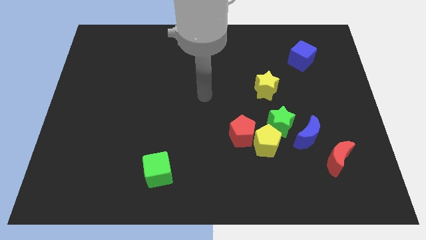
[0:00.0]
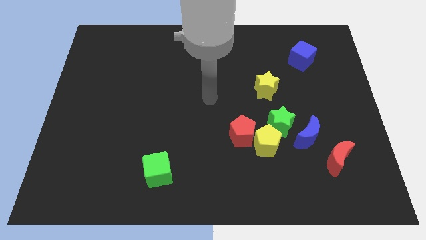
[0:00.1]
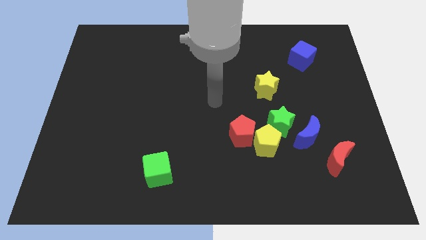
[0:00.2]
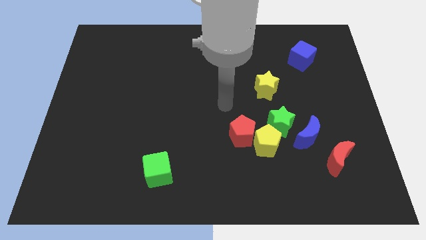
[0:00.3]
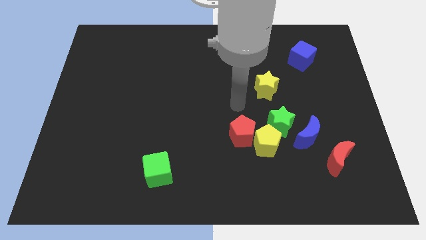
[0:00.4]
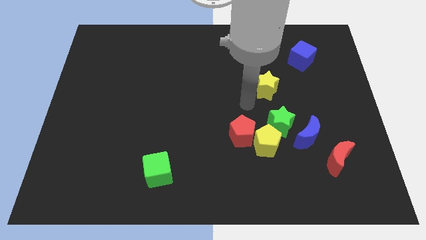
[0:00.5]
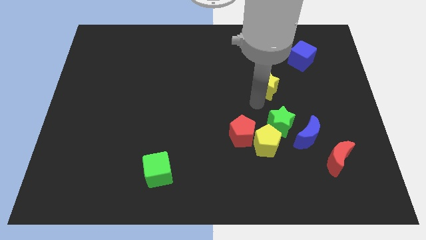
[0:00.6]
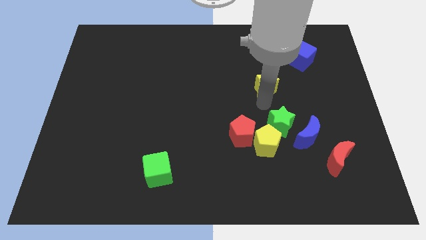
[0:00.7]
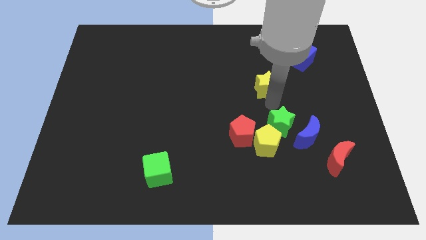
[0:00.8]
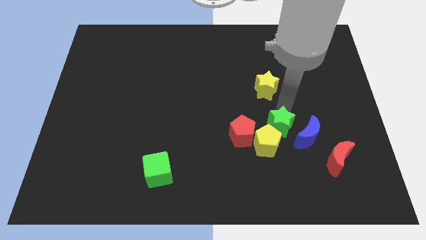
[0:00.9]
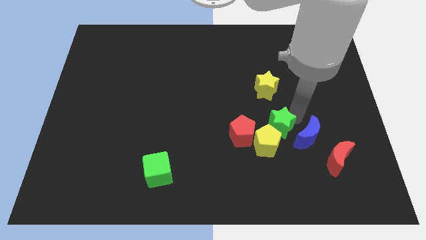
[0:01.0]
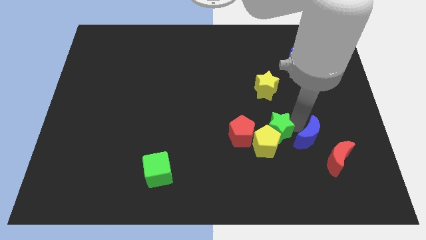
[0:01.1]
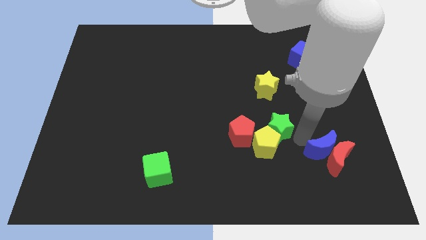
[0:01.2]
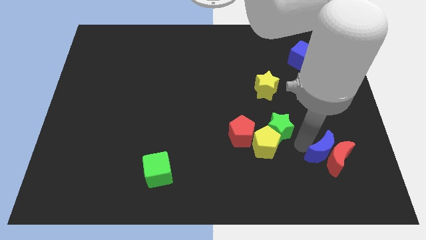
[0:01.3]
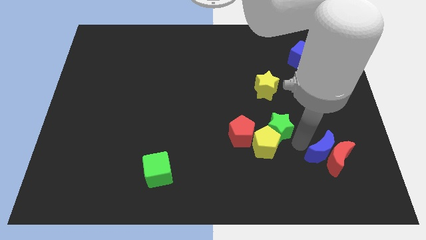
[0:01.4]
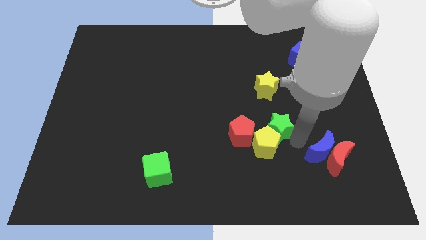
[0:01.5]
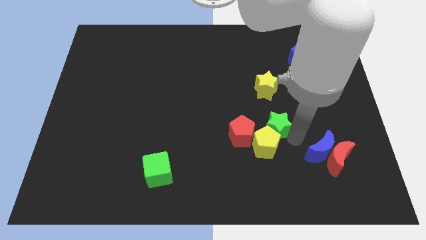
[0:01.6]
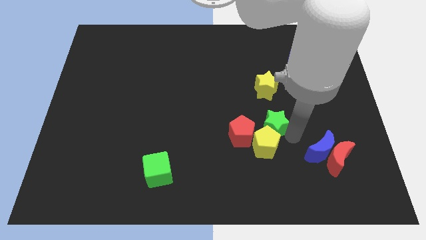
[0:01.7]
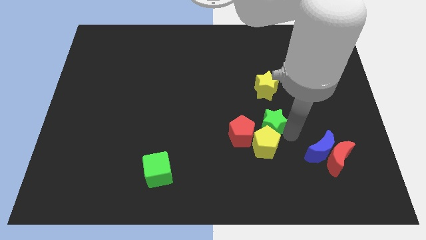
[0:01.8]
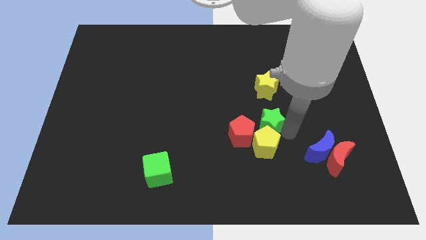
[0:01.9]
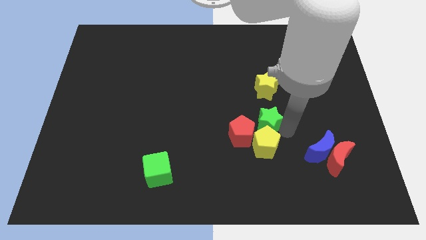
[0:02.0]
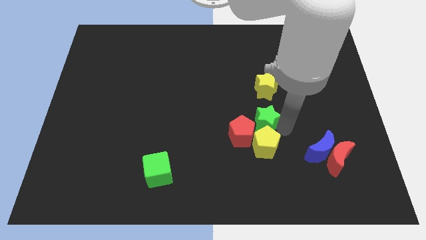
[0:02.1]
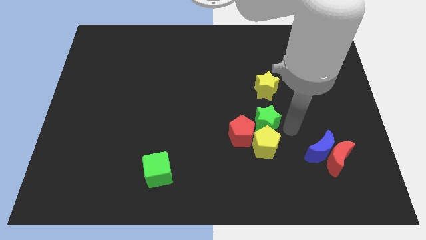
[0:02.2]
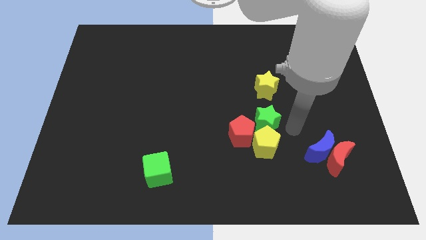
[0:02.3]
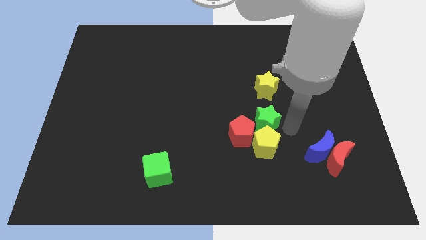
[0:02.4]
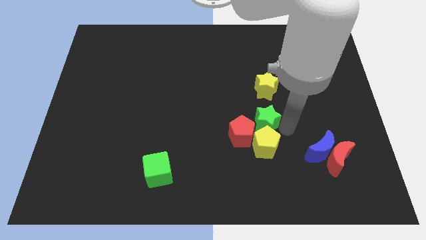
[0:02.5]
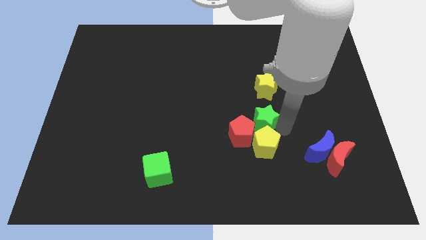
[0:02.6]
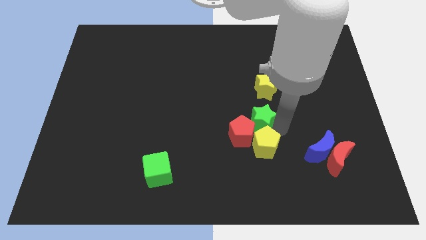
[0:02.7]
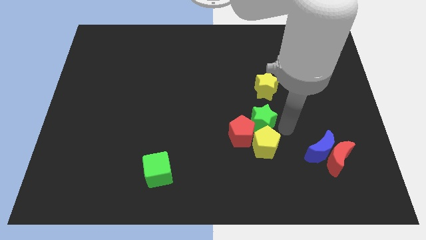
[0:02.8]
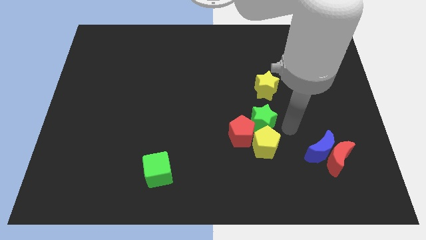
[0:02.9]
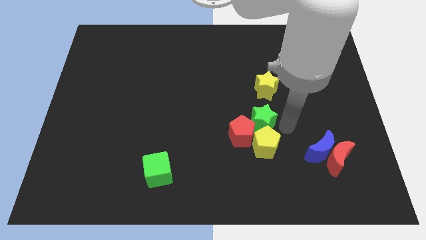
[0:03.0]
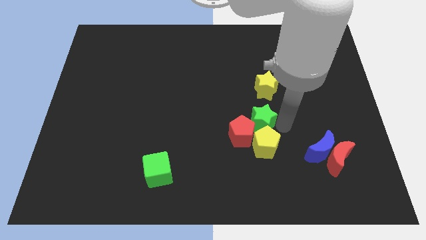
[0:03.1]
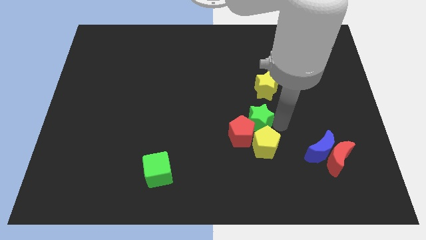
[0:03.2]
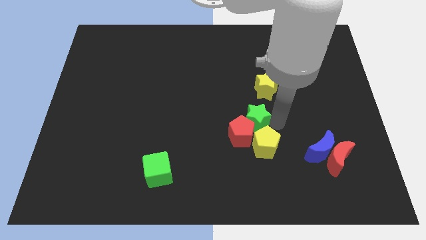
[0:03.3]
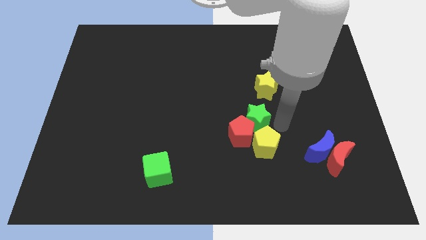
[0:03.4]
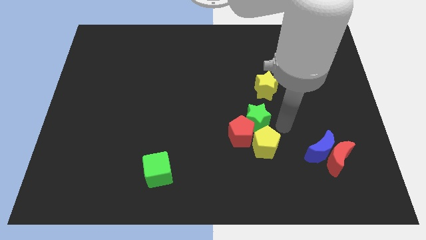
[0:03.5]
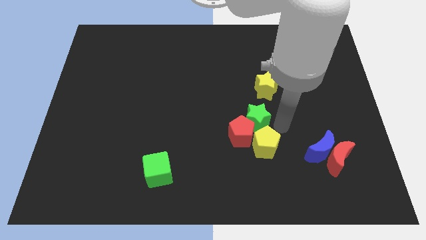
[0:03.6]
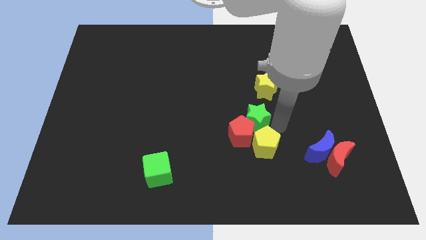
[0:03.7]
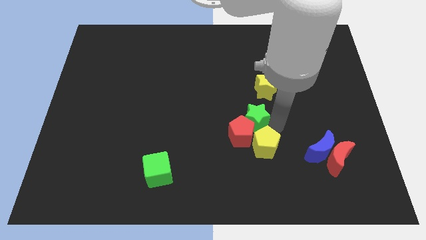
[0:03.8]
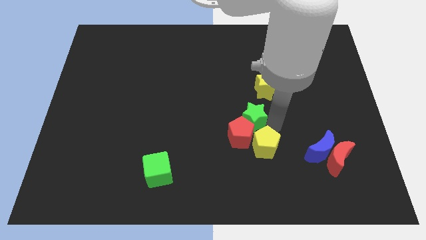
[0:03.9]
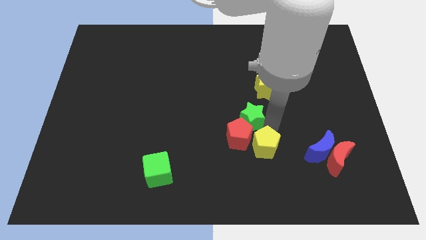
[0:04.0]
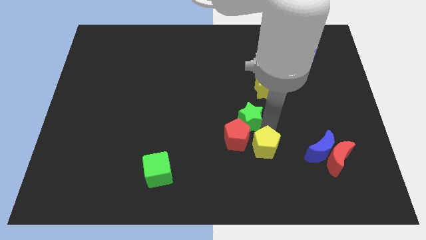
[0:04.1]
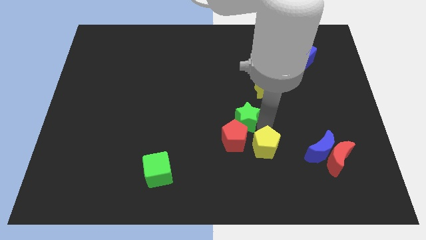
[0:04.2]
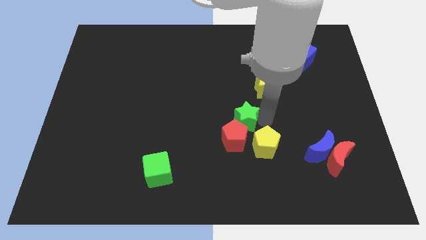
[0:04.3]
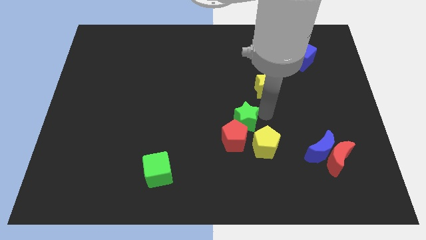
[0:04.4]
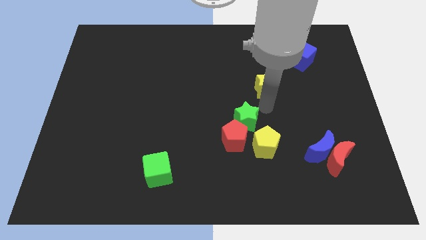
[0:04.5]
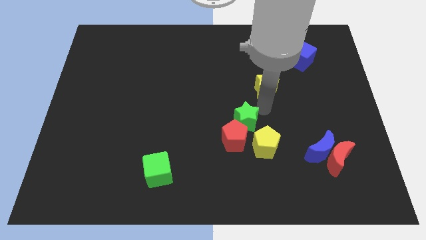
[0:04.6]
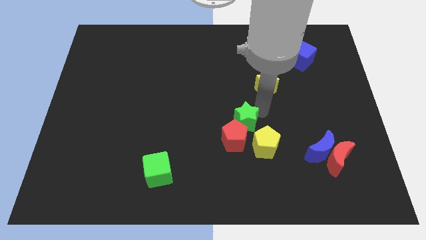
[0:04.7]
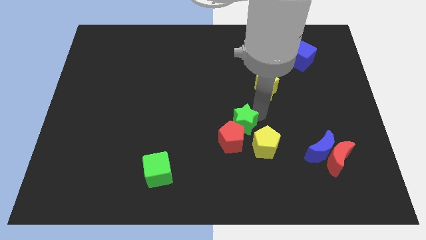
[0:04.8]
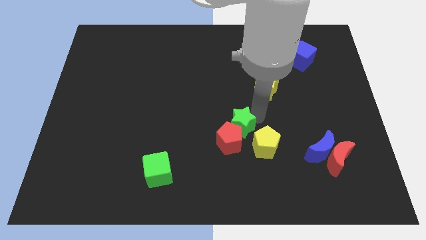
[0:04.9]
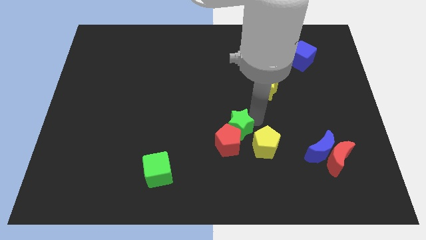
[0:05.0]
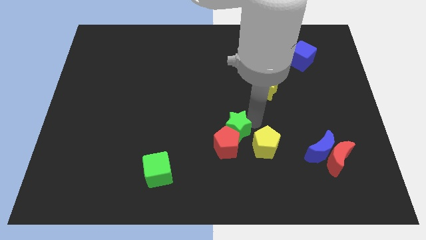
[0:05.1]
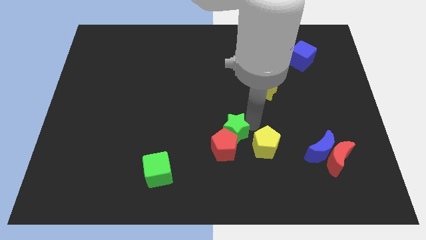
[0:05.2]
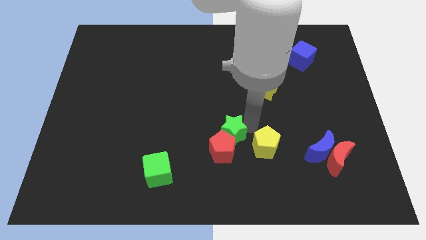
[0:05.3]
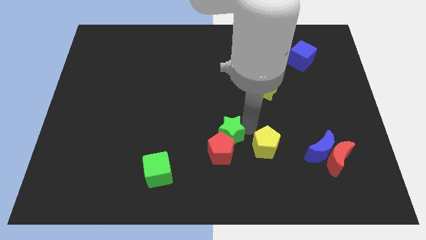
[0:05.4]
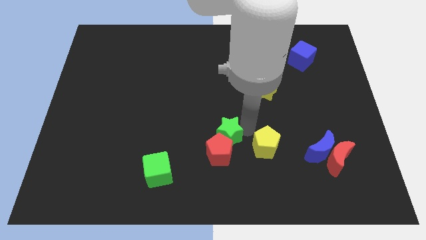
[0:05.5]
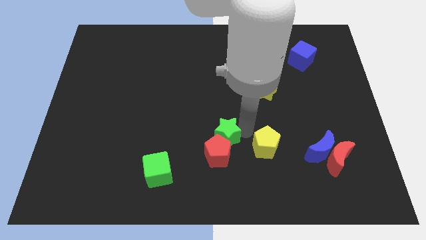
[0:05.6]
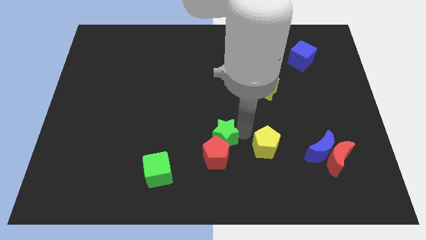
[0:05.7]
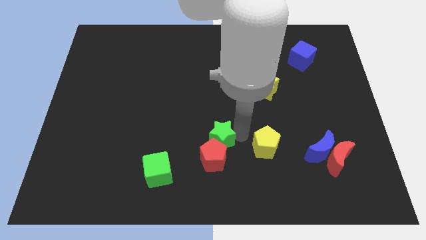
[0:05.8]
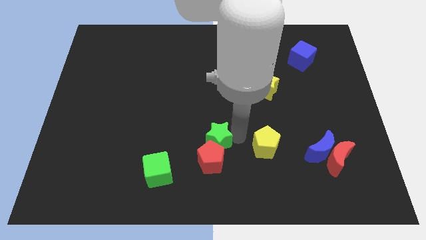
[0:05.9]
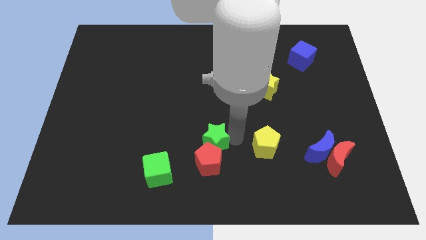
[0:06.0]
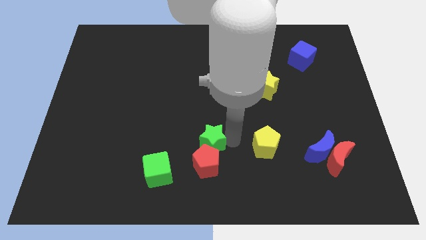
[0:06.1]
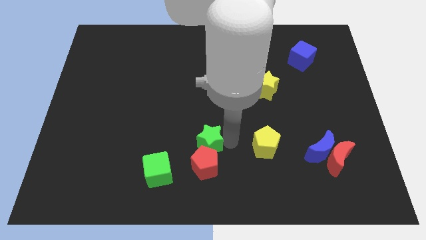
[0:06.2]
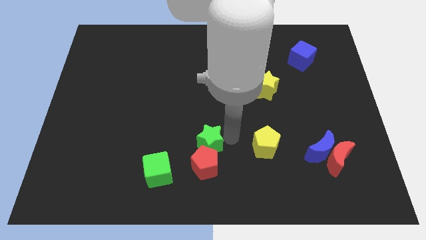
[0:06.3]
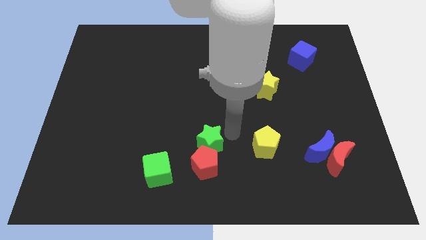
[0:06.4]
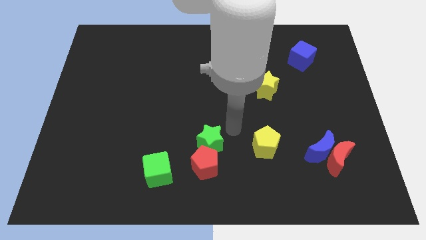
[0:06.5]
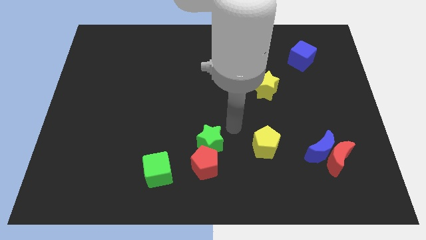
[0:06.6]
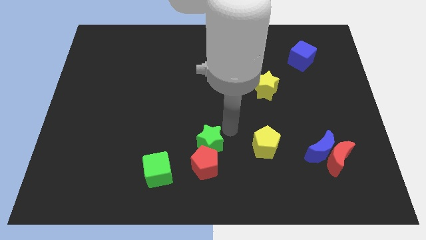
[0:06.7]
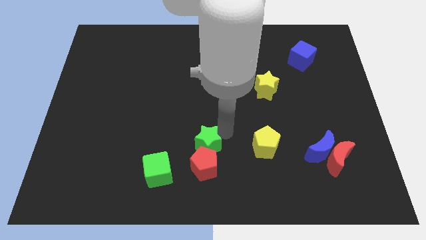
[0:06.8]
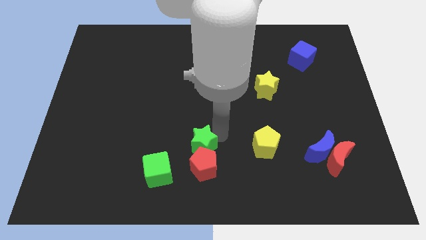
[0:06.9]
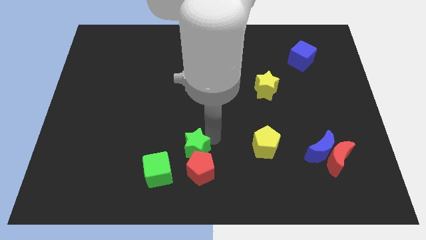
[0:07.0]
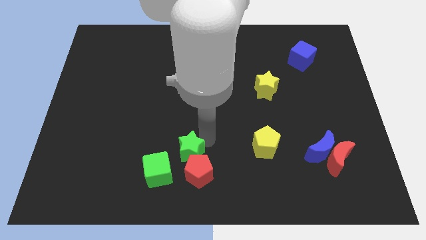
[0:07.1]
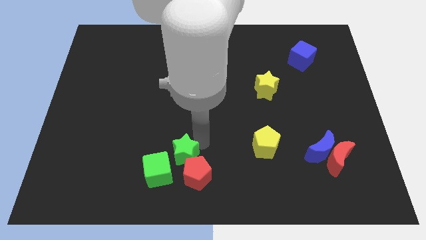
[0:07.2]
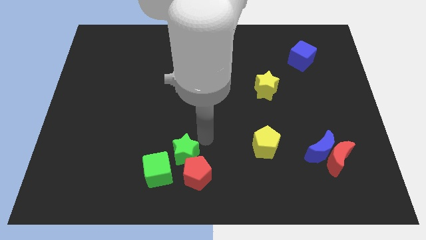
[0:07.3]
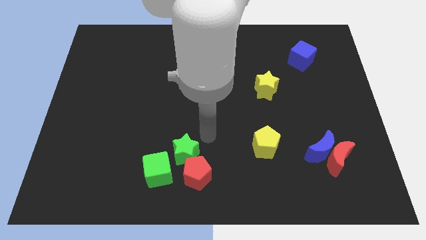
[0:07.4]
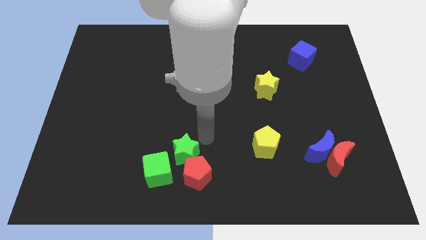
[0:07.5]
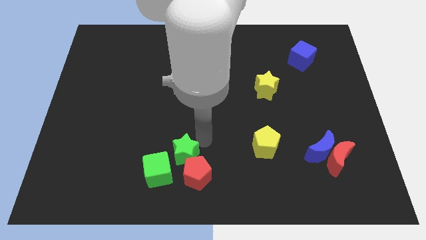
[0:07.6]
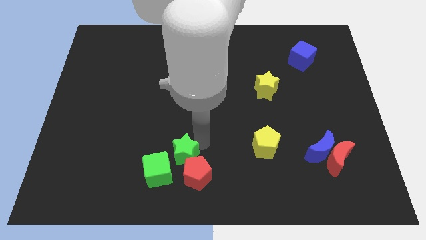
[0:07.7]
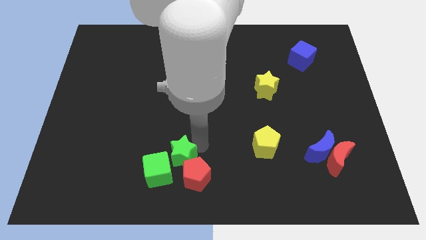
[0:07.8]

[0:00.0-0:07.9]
slide the green star to the green cube
